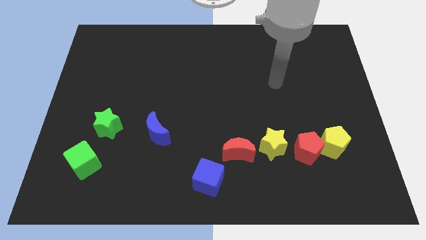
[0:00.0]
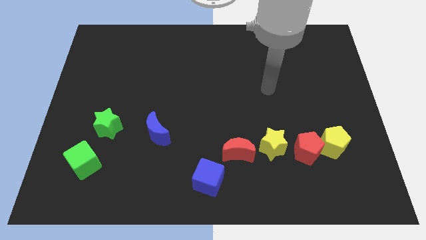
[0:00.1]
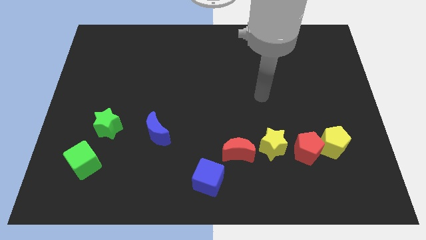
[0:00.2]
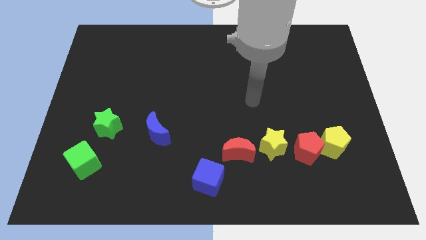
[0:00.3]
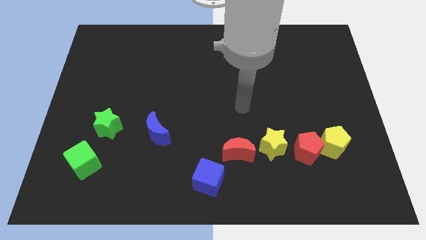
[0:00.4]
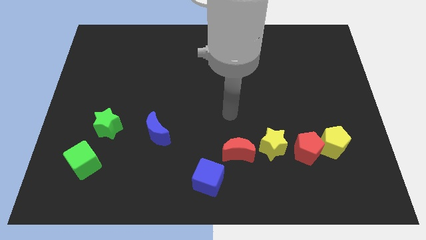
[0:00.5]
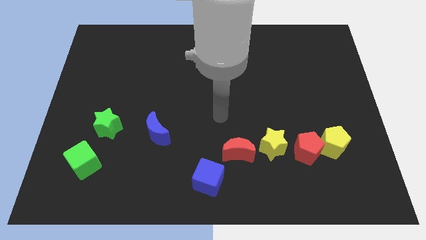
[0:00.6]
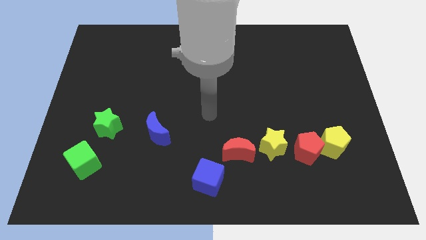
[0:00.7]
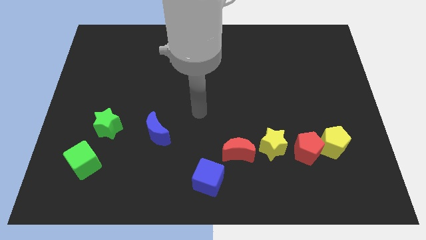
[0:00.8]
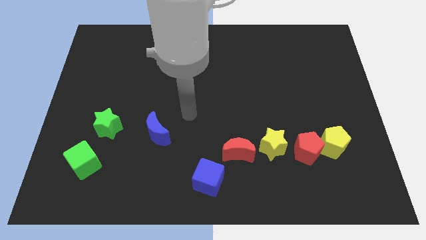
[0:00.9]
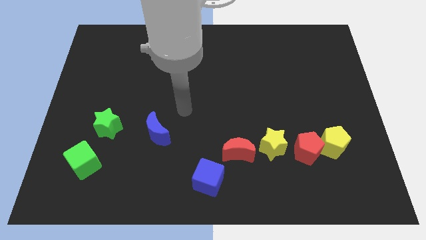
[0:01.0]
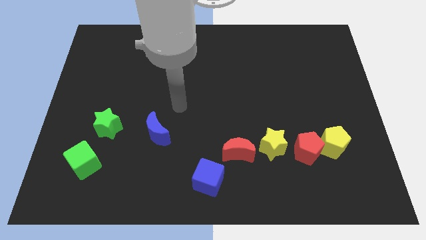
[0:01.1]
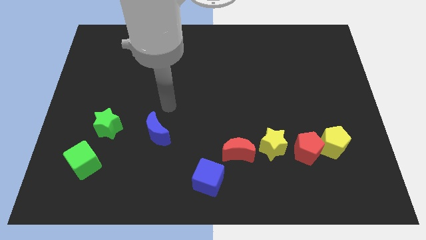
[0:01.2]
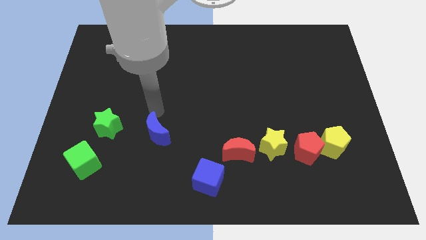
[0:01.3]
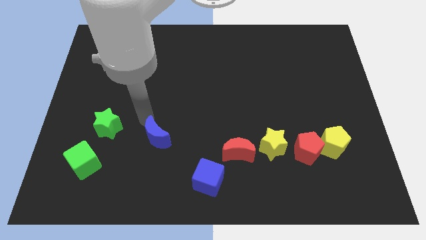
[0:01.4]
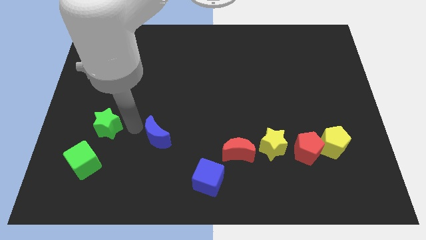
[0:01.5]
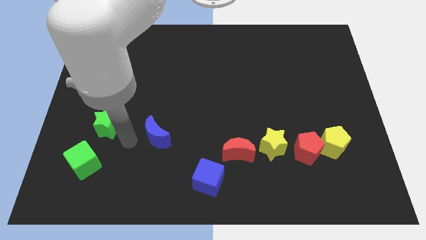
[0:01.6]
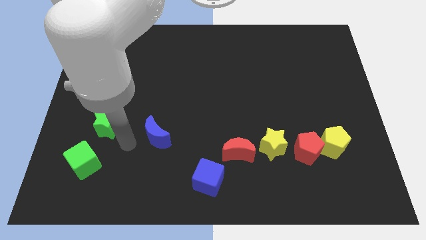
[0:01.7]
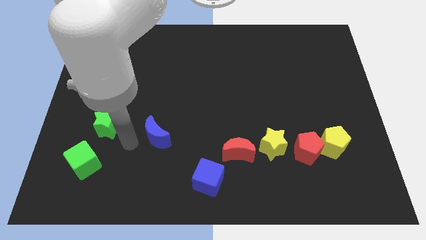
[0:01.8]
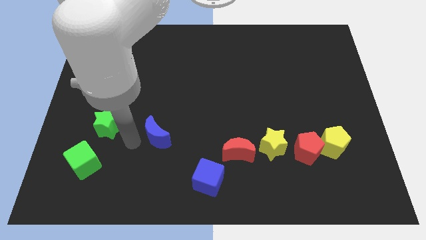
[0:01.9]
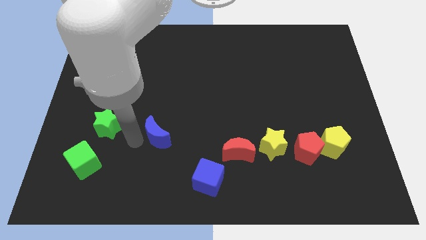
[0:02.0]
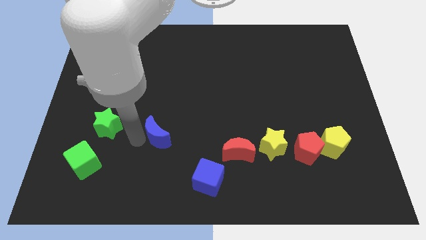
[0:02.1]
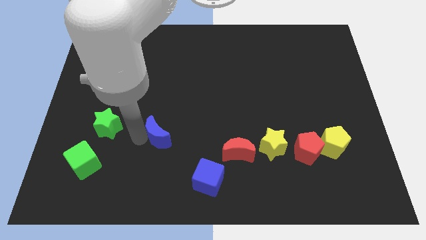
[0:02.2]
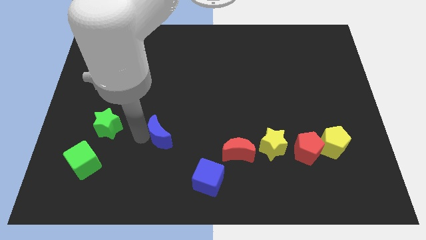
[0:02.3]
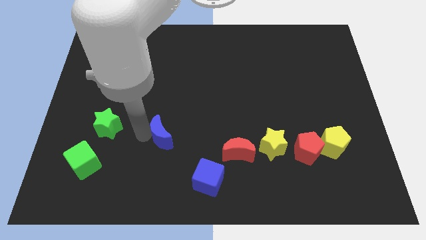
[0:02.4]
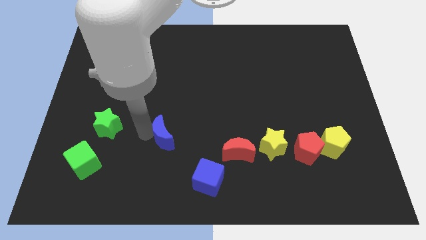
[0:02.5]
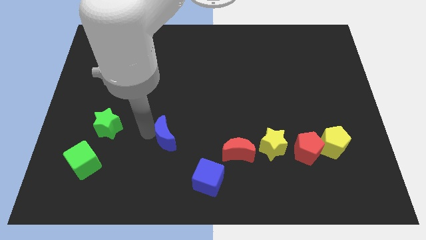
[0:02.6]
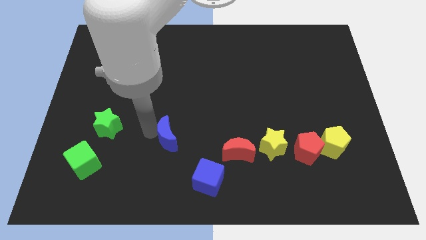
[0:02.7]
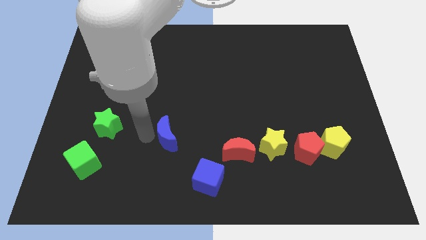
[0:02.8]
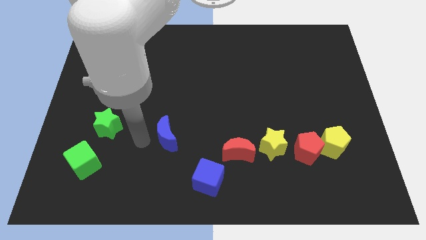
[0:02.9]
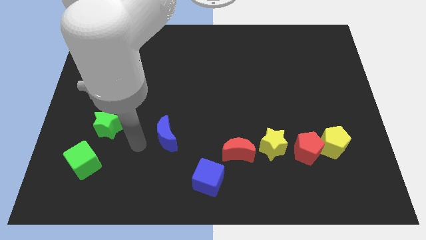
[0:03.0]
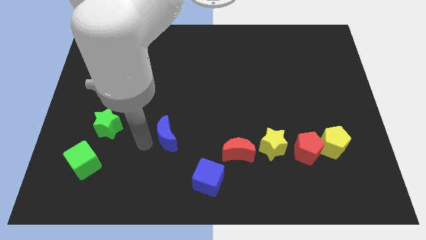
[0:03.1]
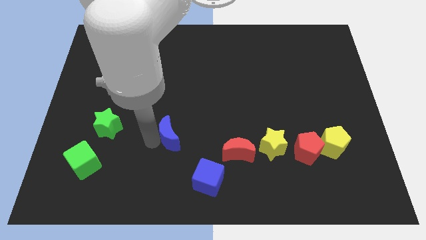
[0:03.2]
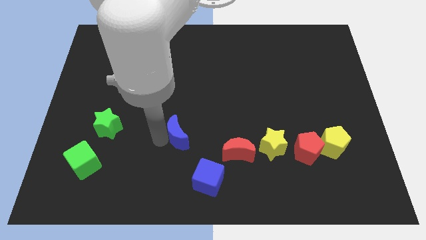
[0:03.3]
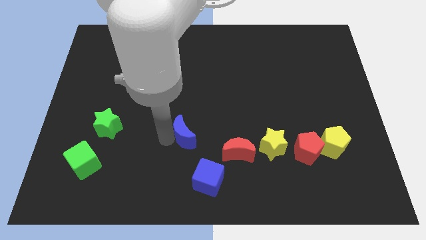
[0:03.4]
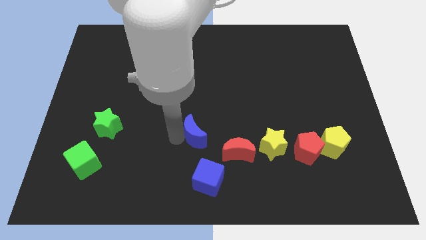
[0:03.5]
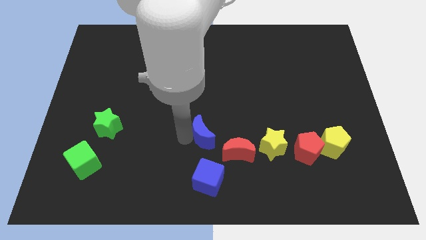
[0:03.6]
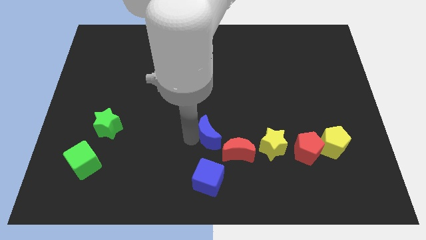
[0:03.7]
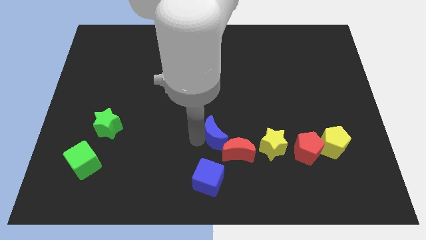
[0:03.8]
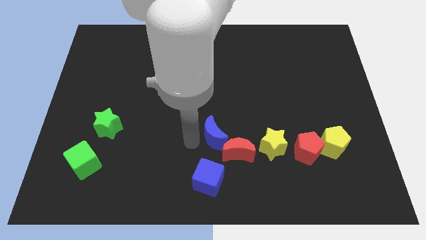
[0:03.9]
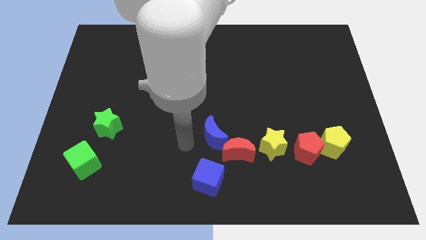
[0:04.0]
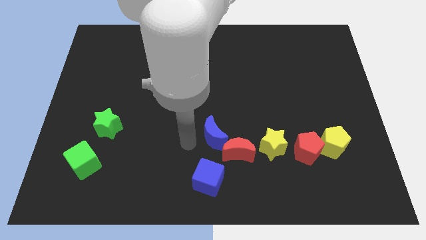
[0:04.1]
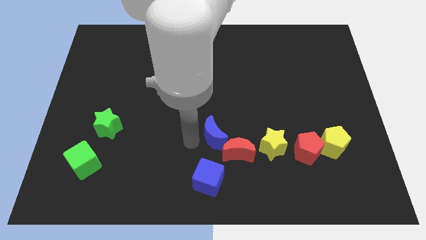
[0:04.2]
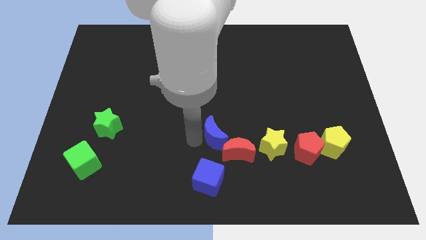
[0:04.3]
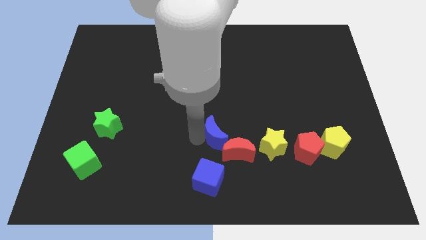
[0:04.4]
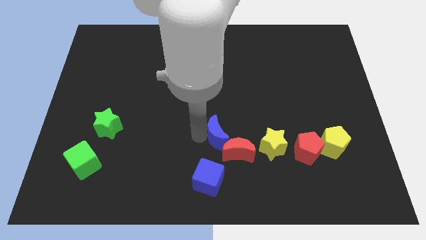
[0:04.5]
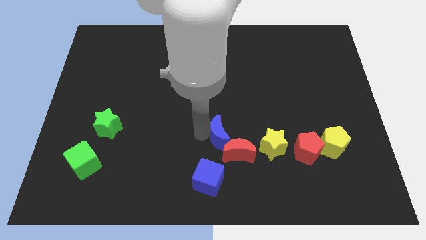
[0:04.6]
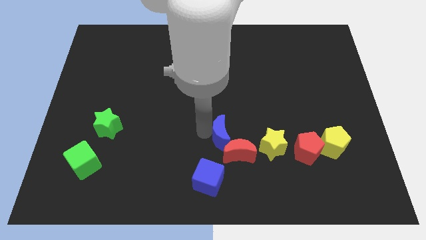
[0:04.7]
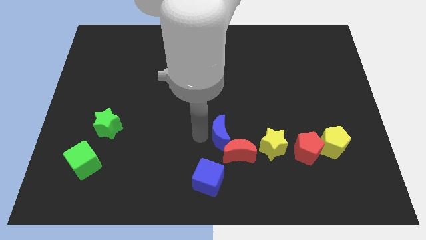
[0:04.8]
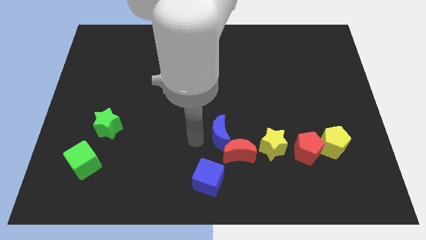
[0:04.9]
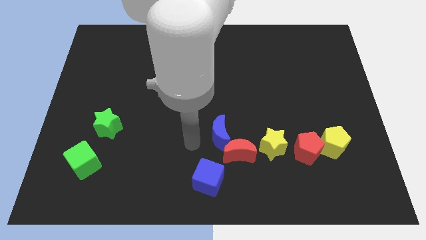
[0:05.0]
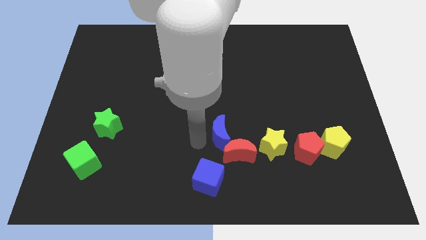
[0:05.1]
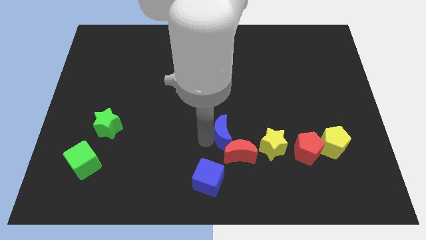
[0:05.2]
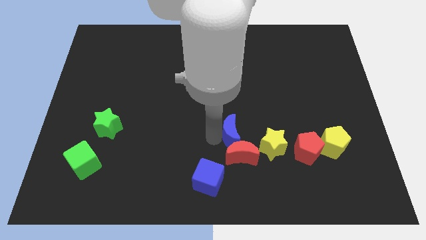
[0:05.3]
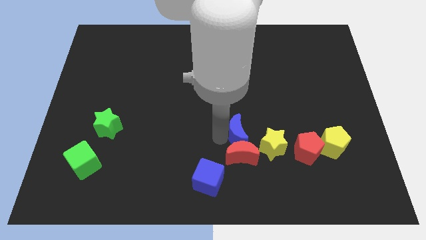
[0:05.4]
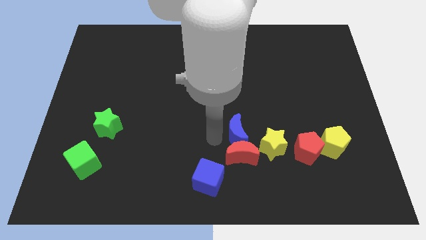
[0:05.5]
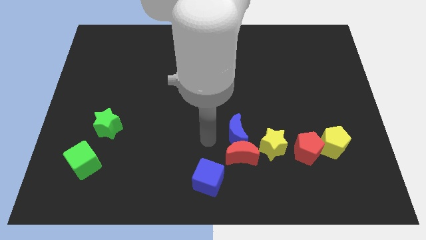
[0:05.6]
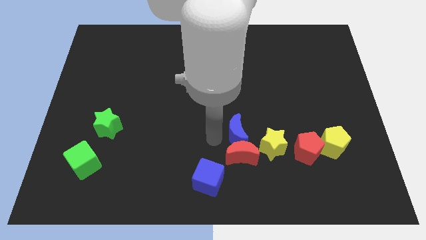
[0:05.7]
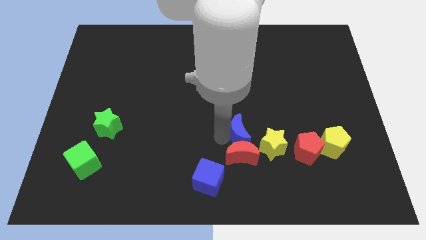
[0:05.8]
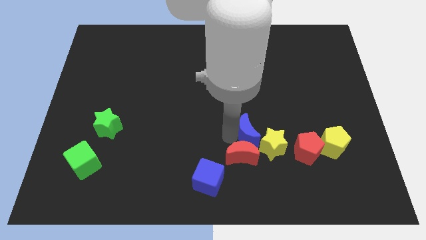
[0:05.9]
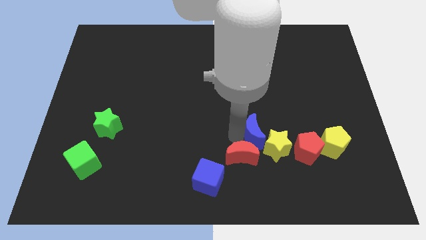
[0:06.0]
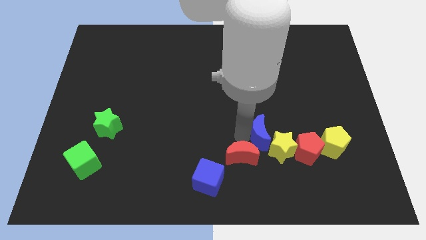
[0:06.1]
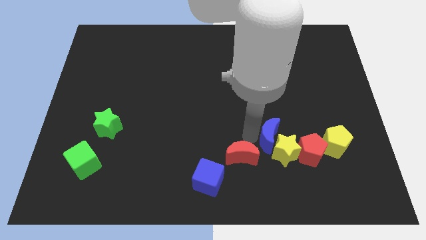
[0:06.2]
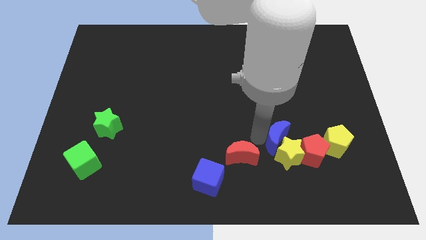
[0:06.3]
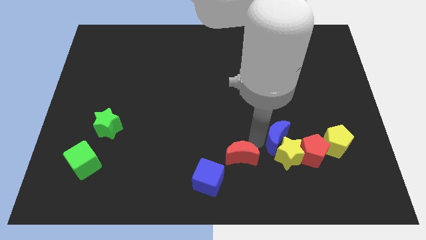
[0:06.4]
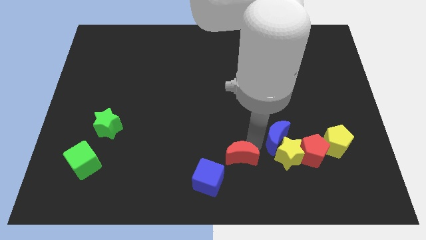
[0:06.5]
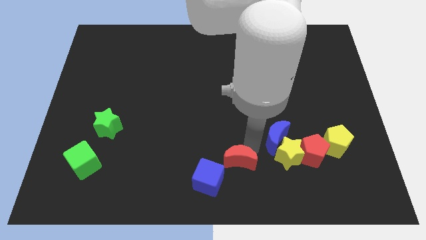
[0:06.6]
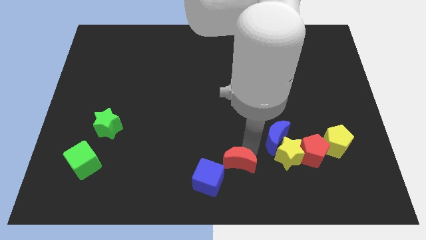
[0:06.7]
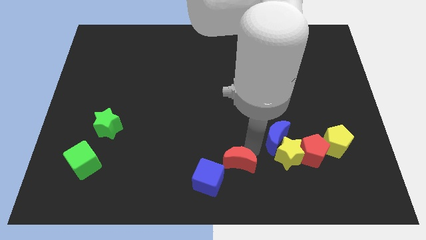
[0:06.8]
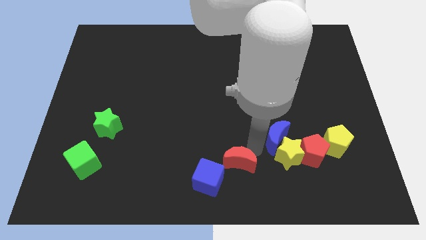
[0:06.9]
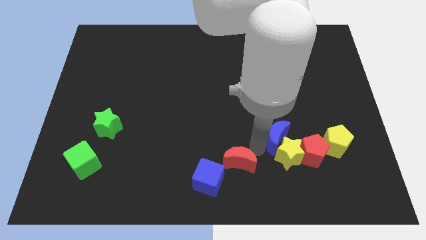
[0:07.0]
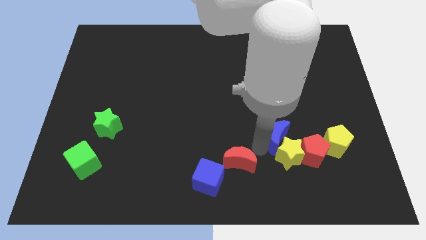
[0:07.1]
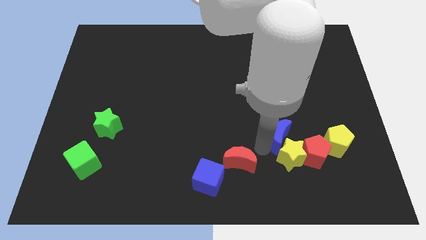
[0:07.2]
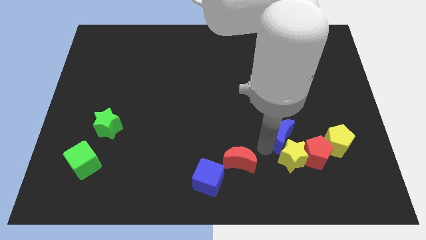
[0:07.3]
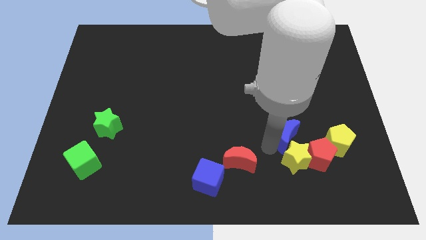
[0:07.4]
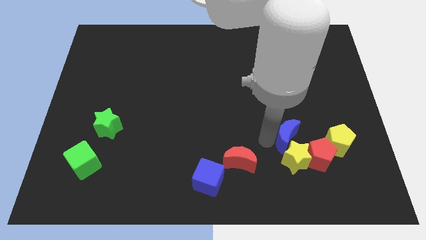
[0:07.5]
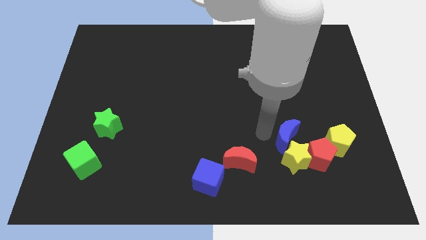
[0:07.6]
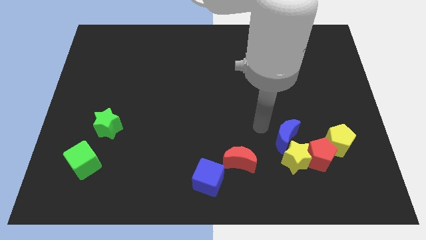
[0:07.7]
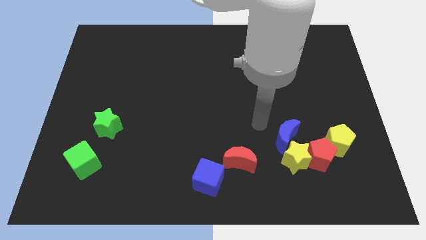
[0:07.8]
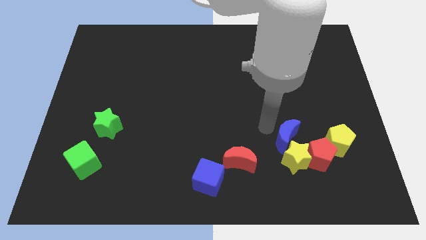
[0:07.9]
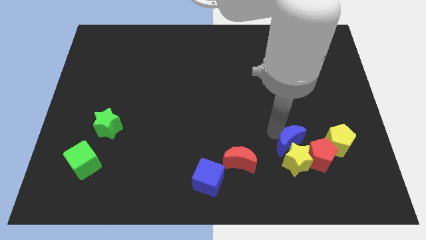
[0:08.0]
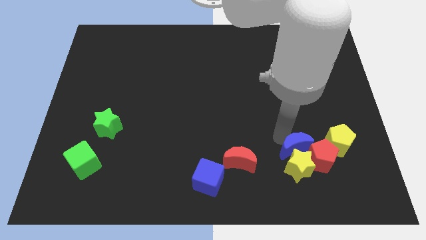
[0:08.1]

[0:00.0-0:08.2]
move the blue moon next to the red pentagon
